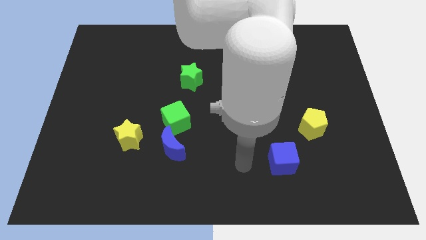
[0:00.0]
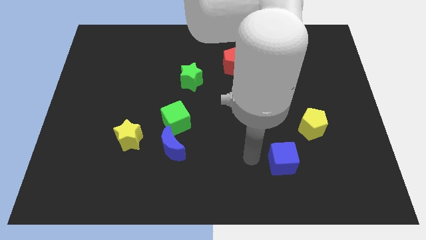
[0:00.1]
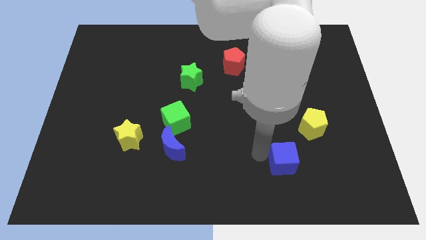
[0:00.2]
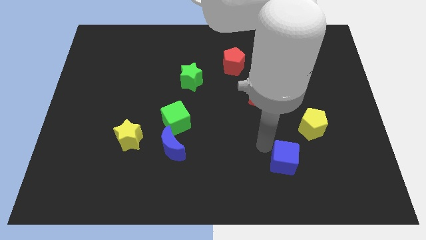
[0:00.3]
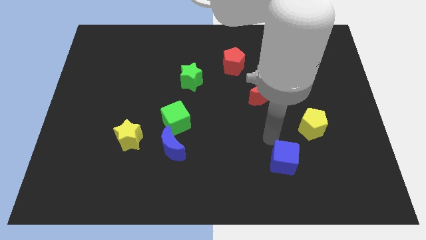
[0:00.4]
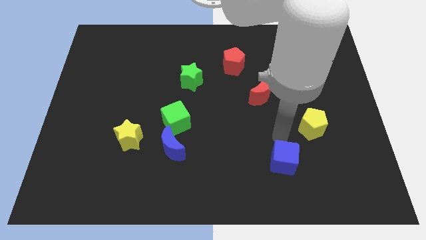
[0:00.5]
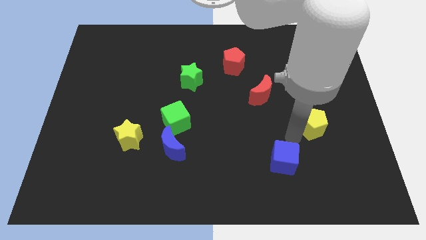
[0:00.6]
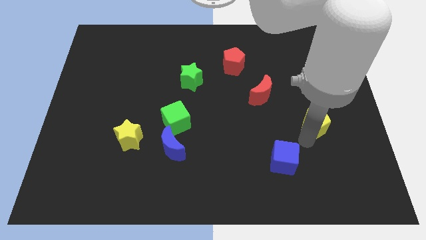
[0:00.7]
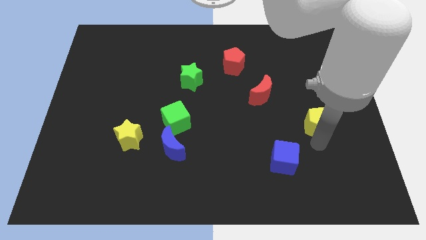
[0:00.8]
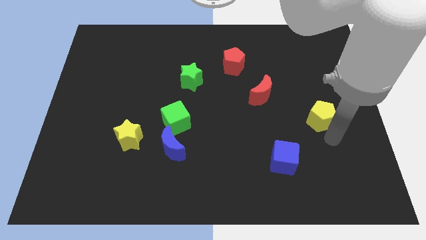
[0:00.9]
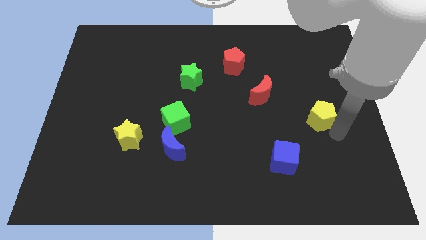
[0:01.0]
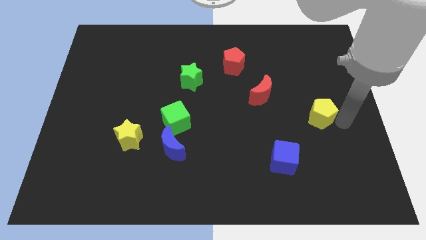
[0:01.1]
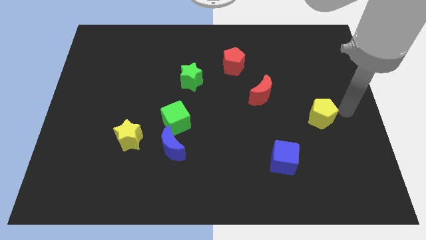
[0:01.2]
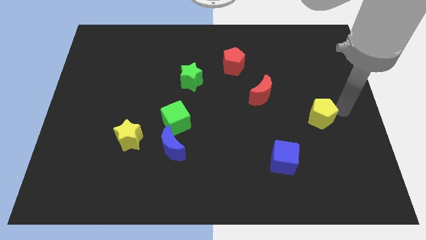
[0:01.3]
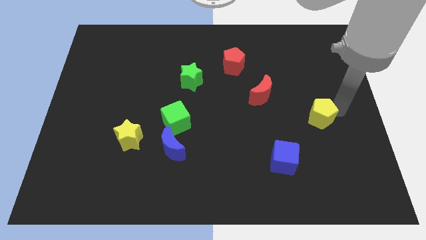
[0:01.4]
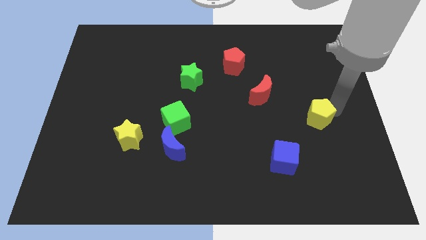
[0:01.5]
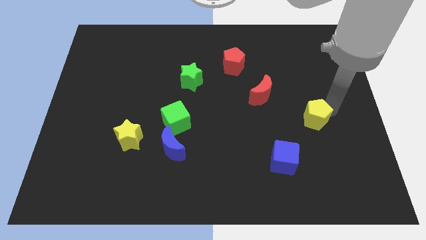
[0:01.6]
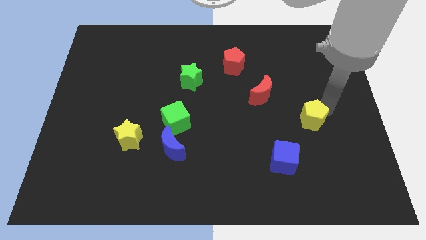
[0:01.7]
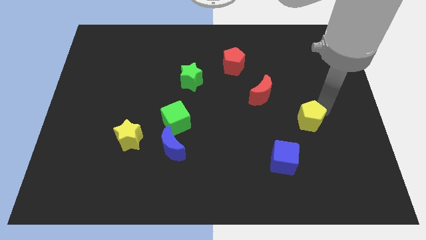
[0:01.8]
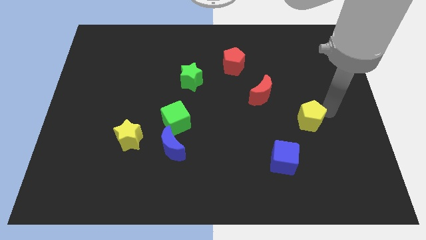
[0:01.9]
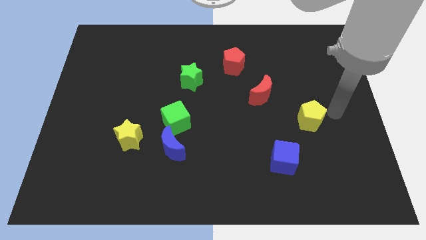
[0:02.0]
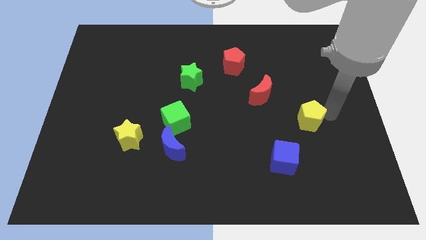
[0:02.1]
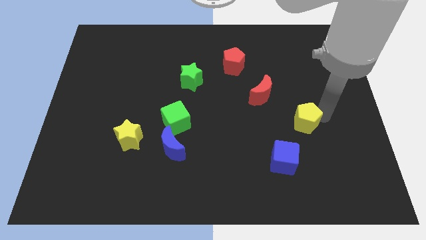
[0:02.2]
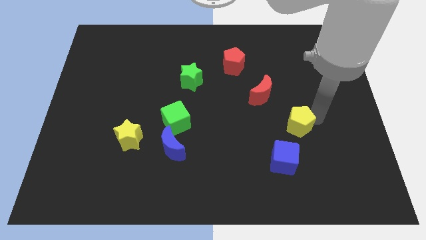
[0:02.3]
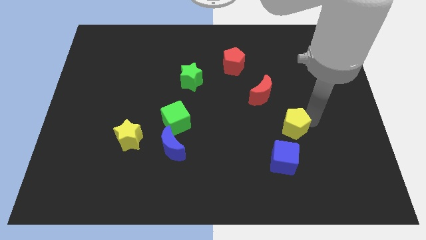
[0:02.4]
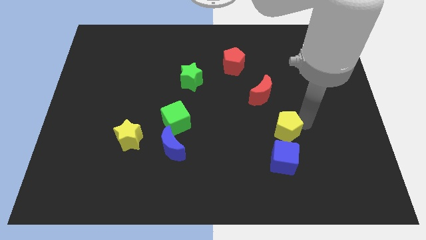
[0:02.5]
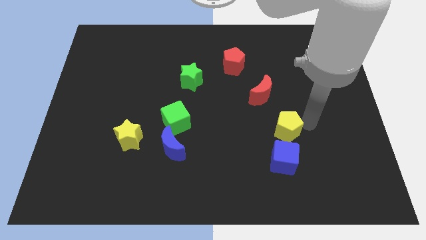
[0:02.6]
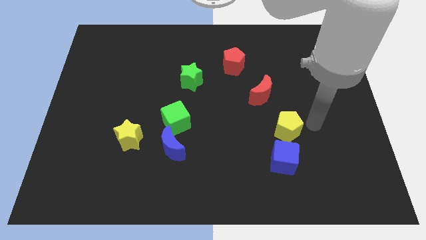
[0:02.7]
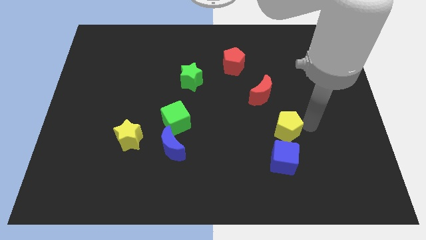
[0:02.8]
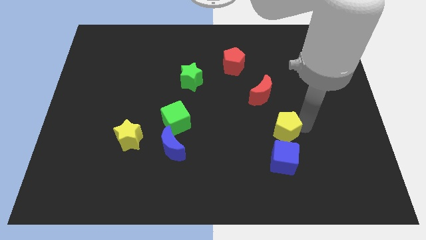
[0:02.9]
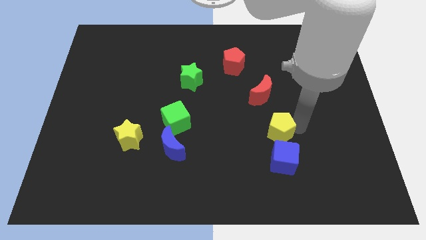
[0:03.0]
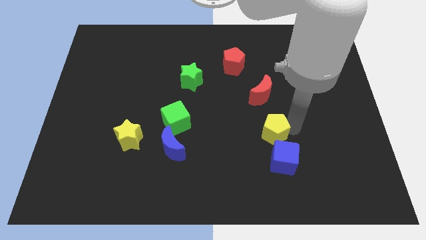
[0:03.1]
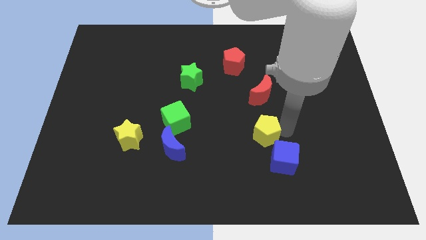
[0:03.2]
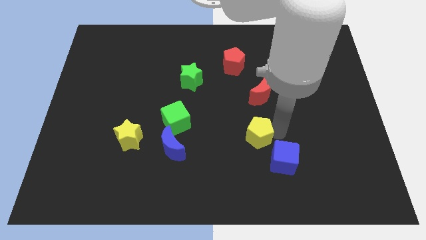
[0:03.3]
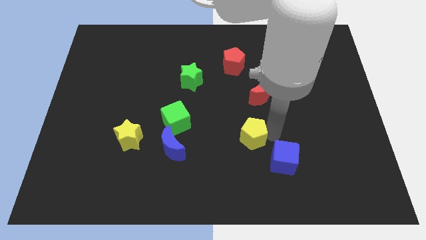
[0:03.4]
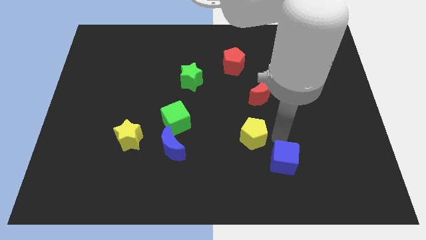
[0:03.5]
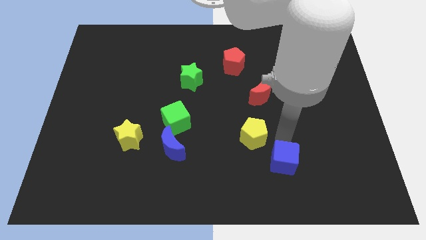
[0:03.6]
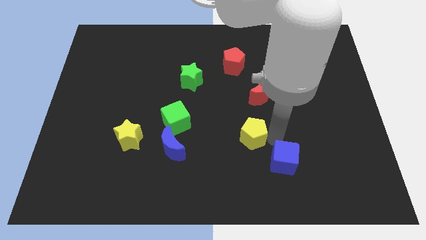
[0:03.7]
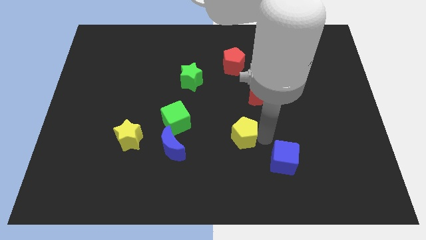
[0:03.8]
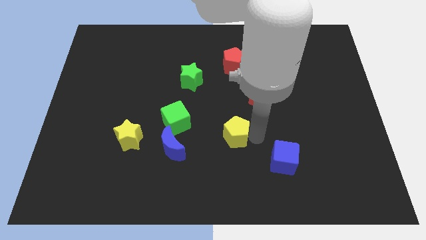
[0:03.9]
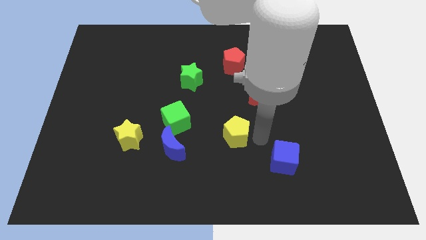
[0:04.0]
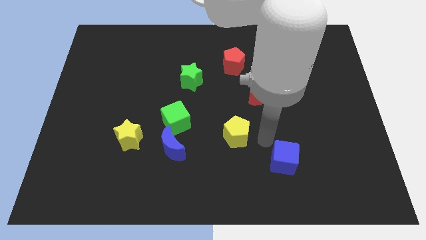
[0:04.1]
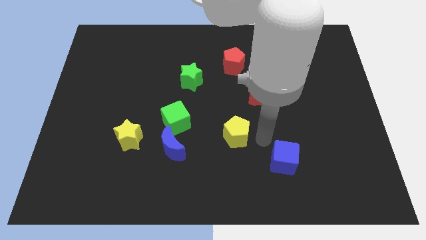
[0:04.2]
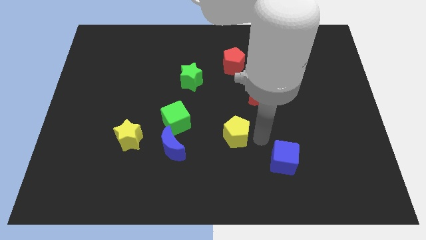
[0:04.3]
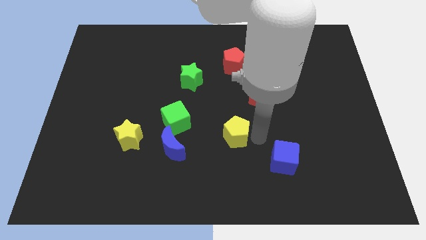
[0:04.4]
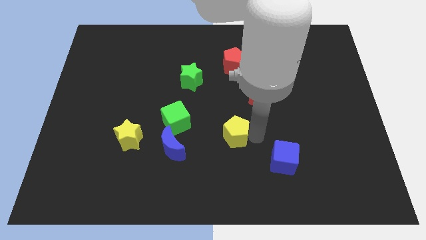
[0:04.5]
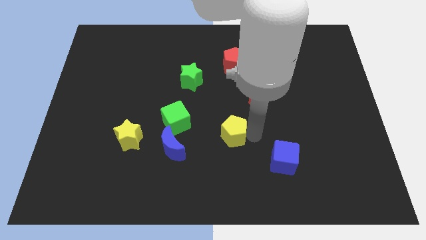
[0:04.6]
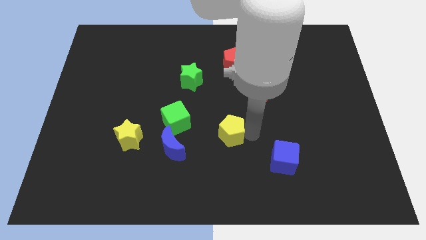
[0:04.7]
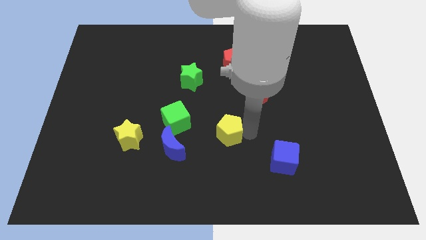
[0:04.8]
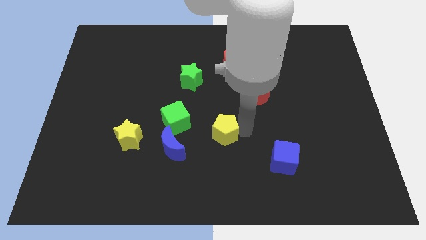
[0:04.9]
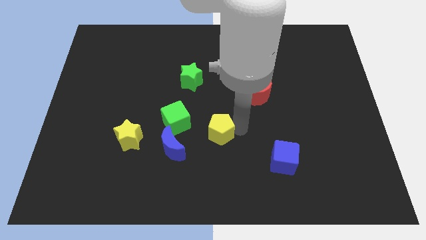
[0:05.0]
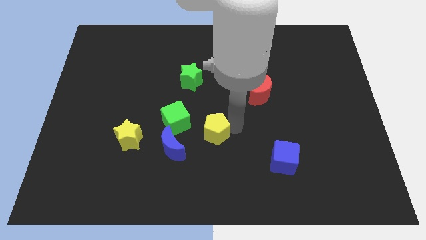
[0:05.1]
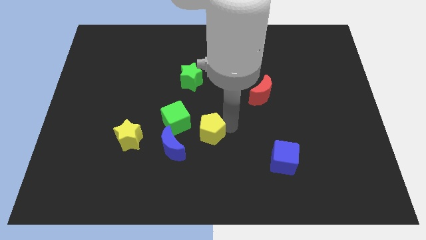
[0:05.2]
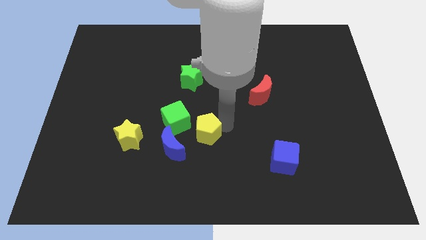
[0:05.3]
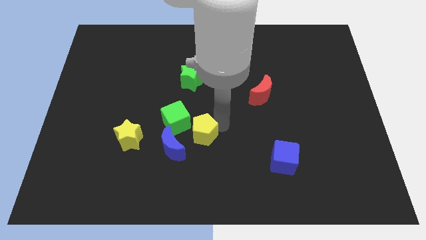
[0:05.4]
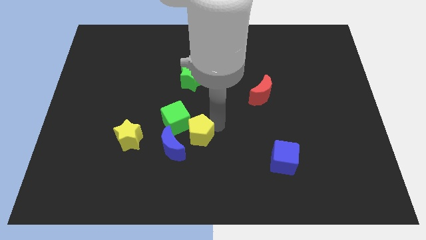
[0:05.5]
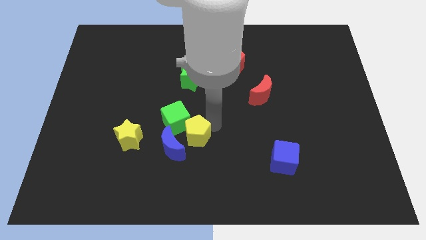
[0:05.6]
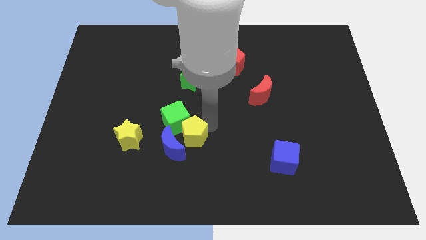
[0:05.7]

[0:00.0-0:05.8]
push the yellow pentagon to the blue moon

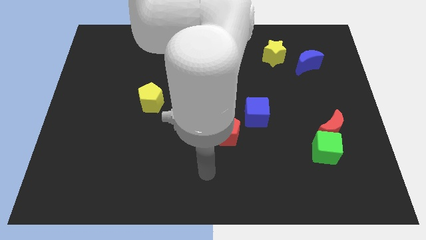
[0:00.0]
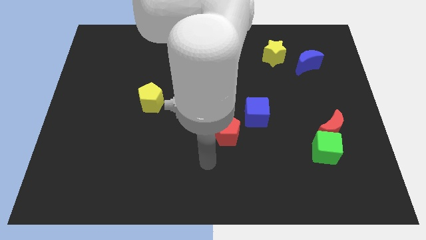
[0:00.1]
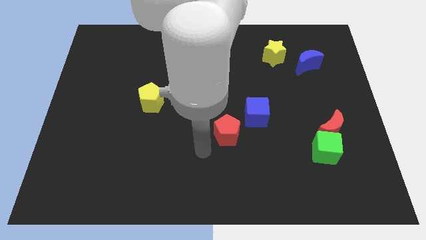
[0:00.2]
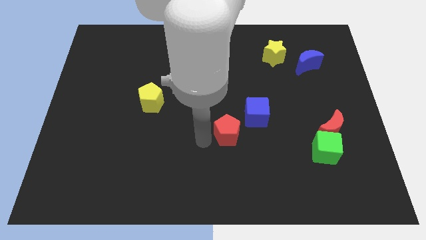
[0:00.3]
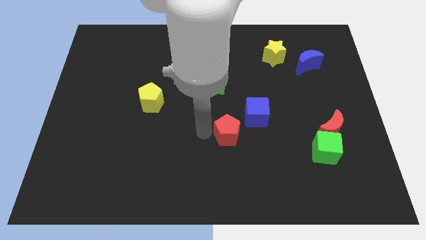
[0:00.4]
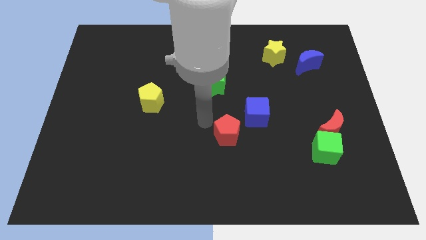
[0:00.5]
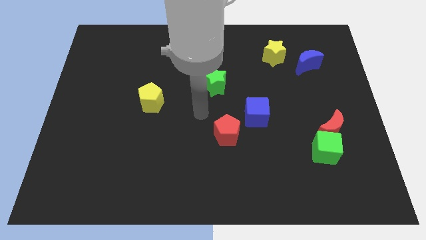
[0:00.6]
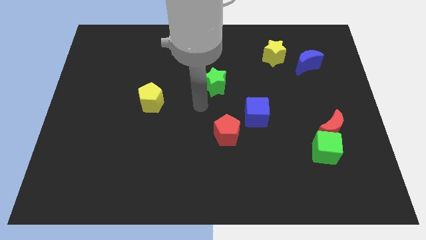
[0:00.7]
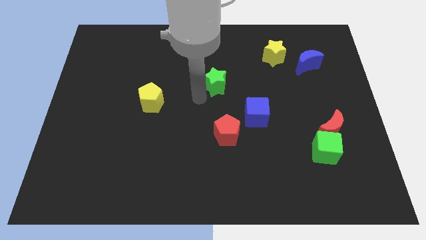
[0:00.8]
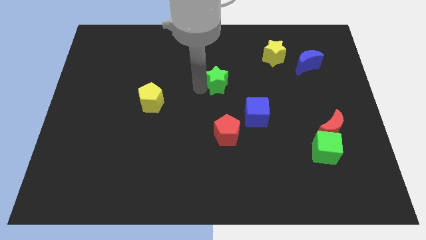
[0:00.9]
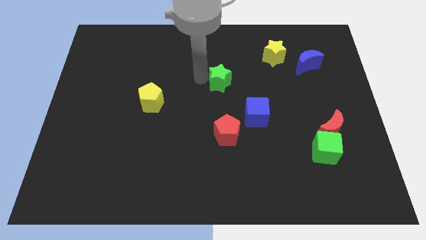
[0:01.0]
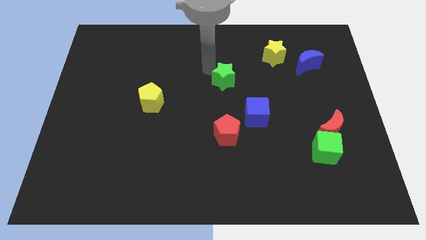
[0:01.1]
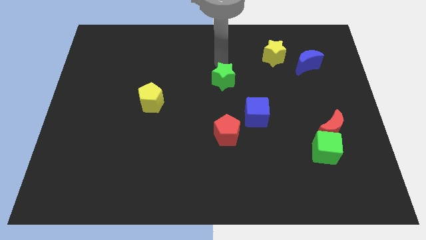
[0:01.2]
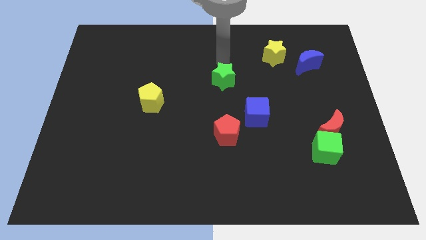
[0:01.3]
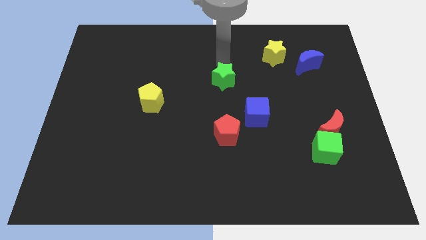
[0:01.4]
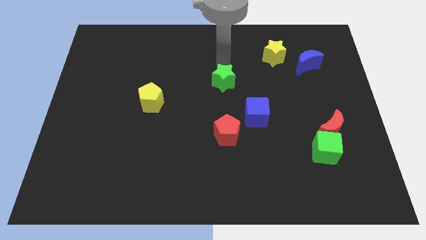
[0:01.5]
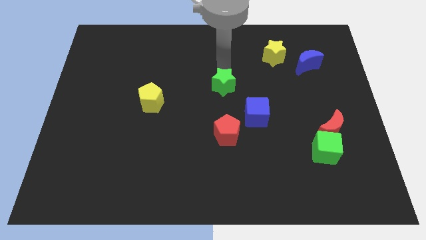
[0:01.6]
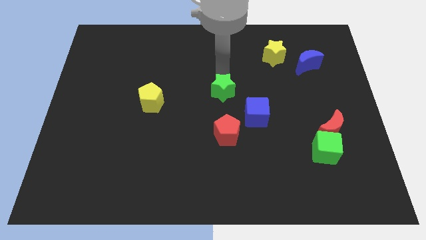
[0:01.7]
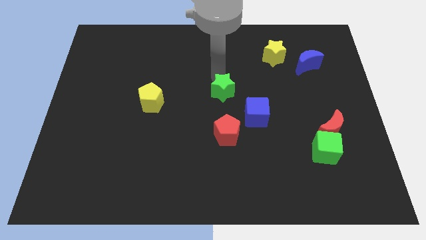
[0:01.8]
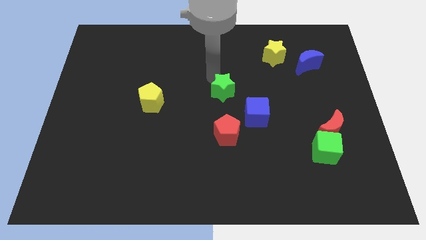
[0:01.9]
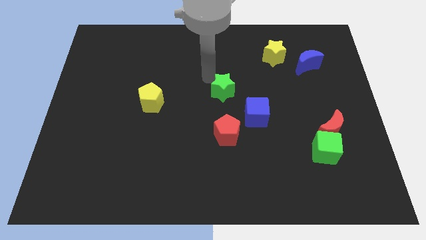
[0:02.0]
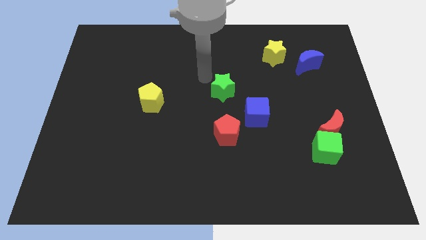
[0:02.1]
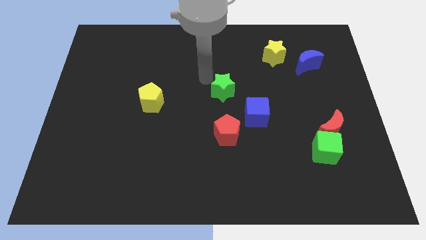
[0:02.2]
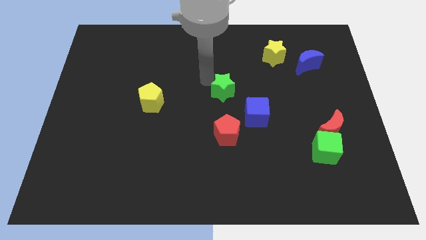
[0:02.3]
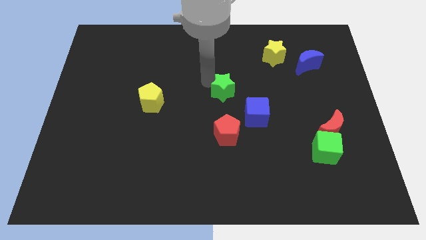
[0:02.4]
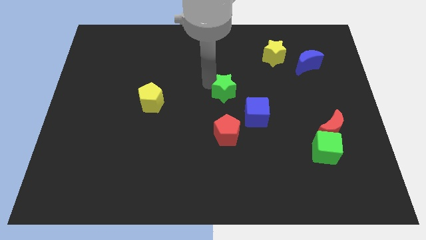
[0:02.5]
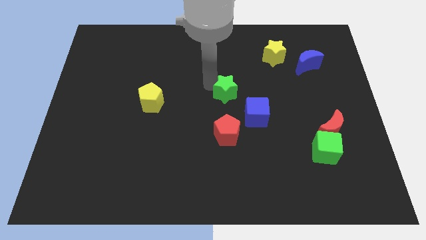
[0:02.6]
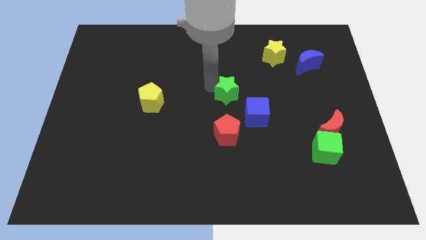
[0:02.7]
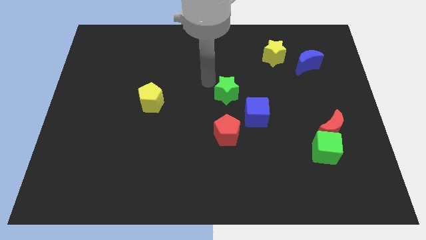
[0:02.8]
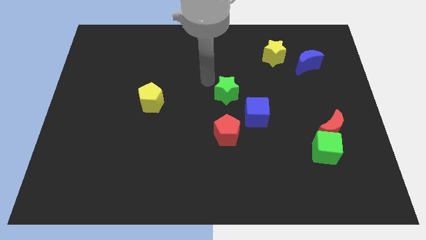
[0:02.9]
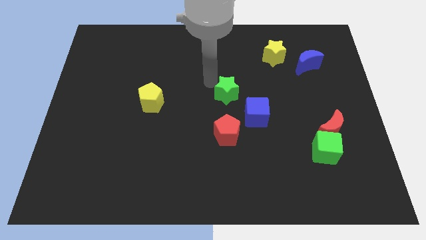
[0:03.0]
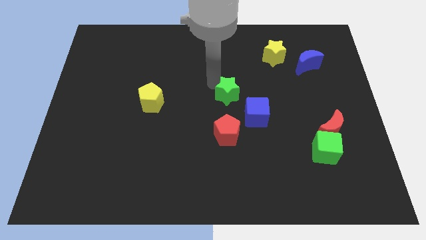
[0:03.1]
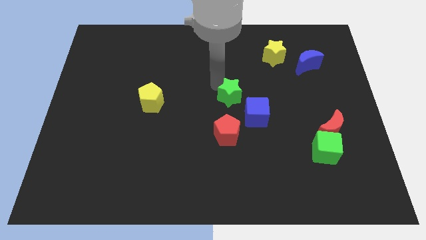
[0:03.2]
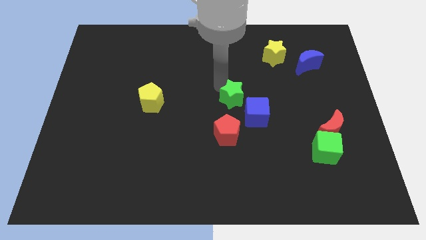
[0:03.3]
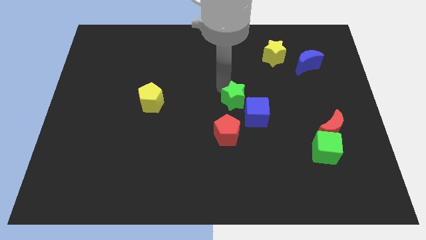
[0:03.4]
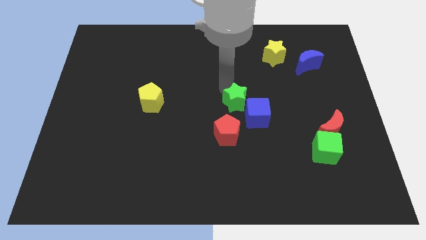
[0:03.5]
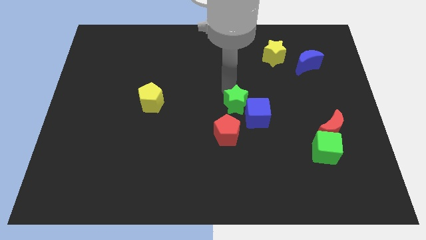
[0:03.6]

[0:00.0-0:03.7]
slide the green star towards the blue cube
